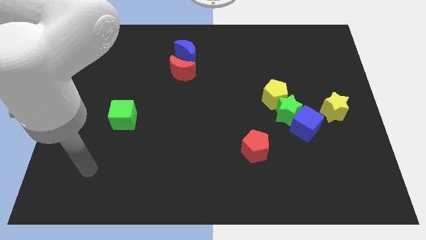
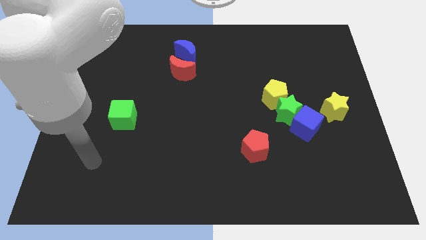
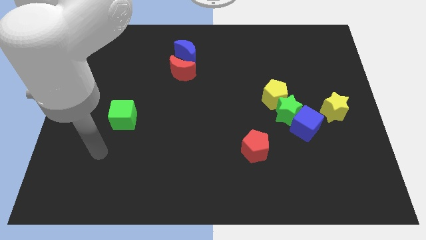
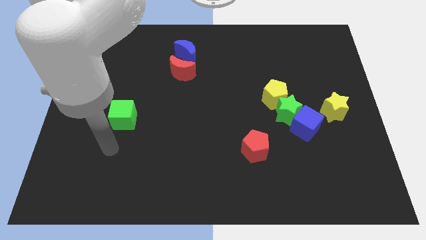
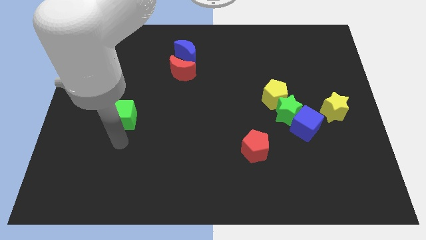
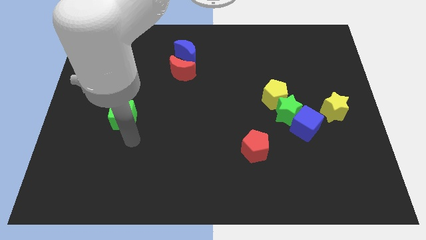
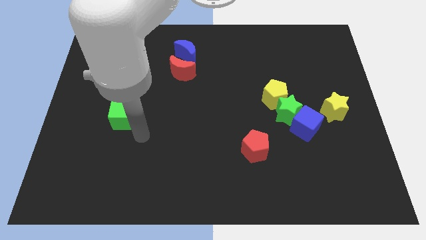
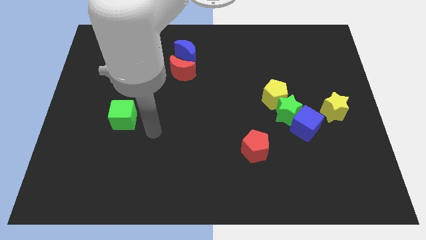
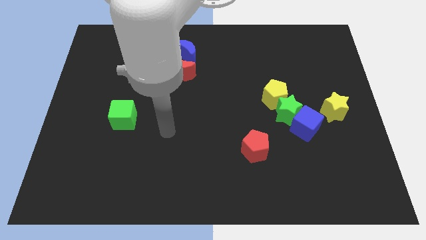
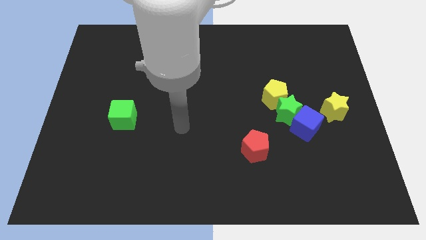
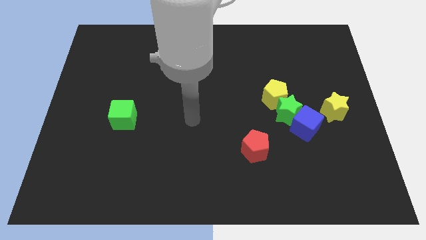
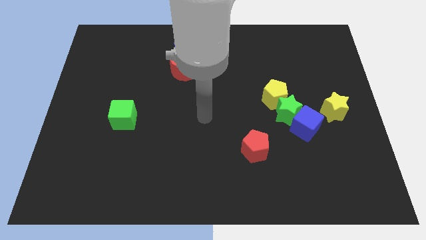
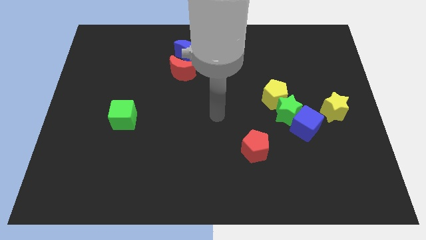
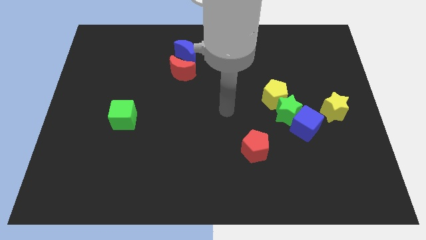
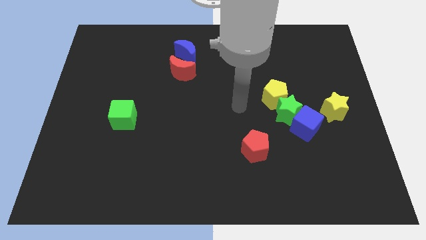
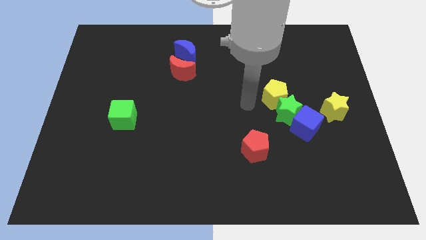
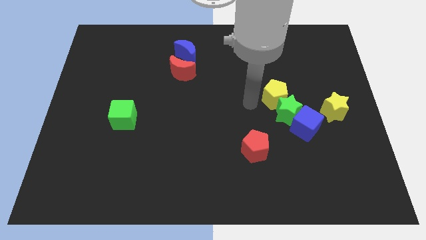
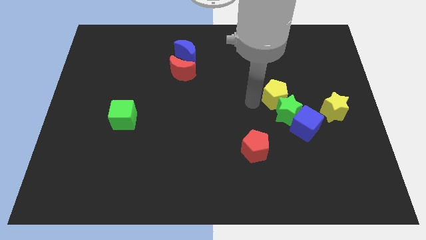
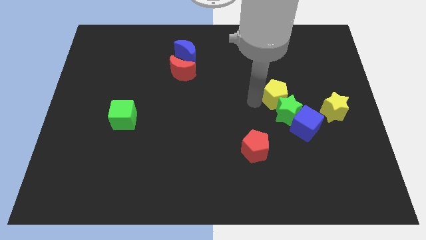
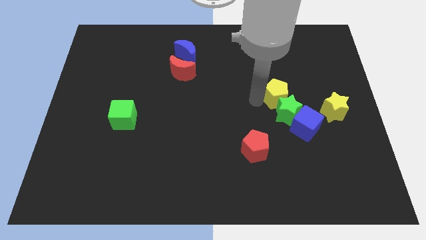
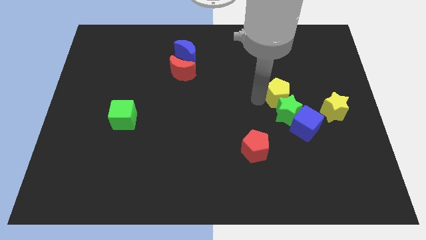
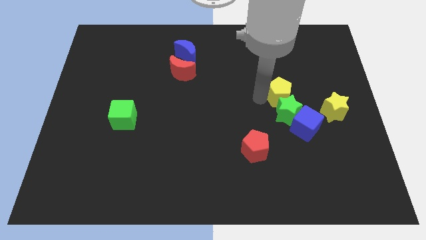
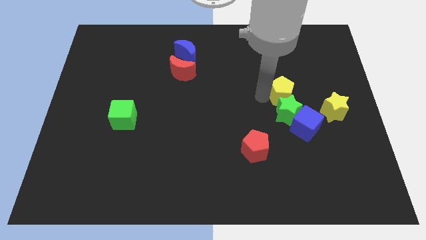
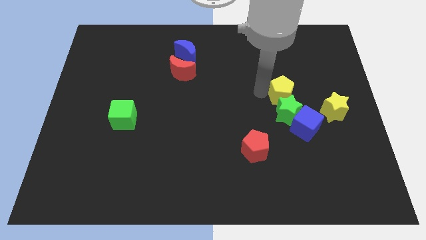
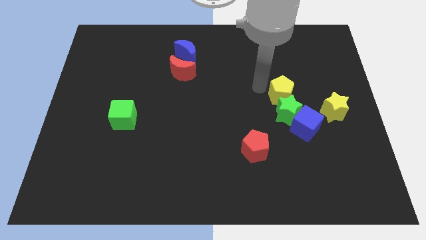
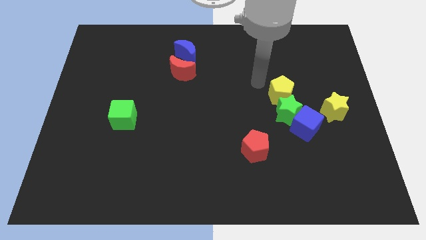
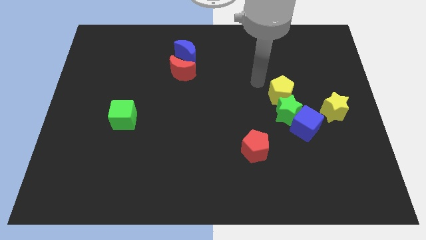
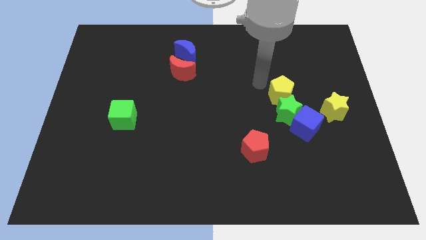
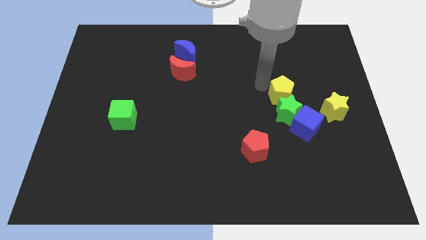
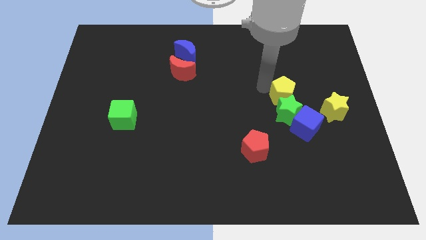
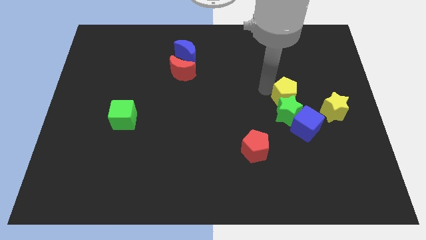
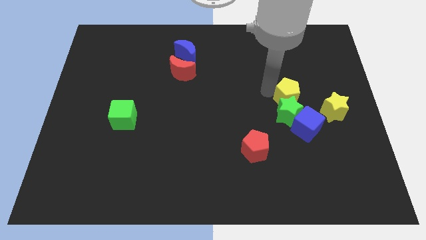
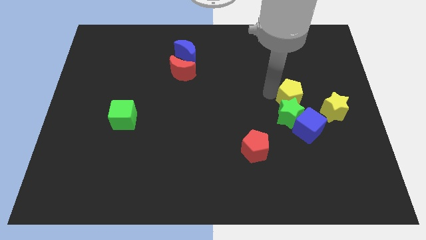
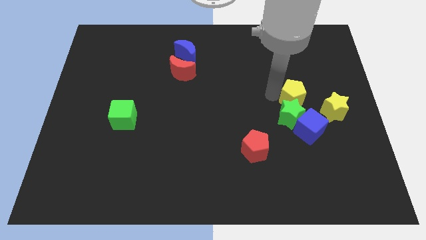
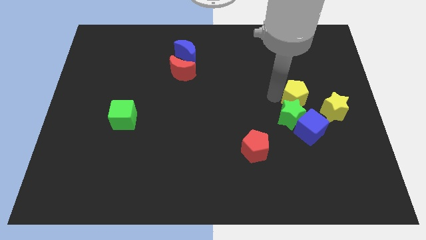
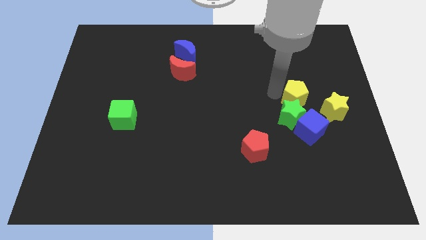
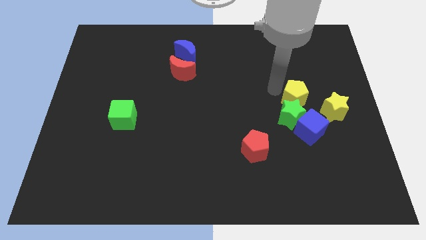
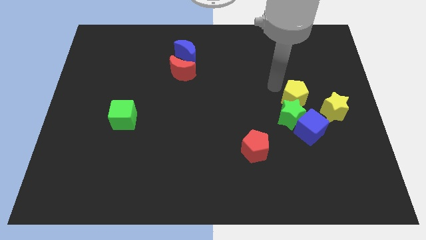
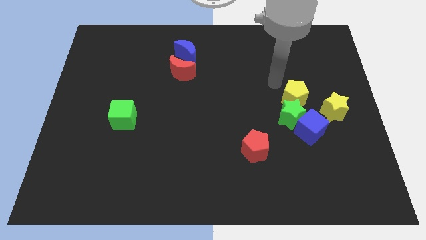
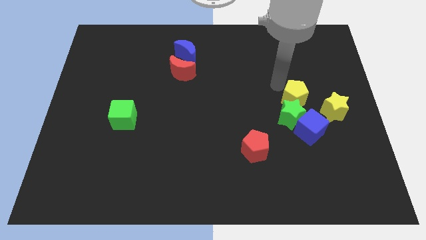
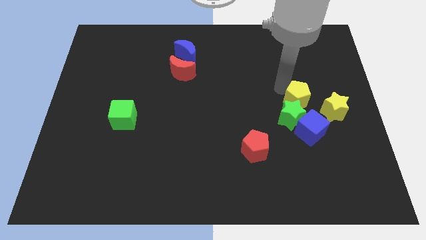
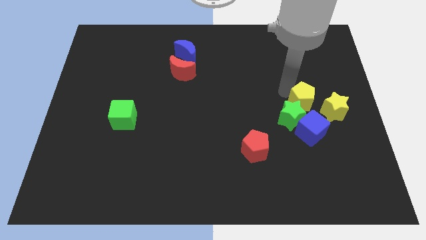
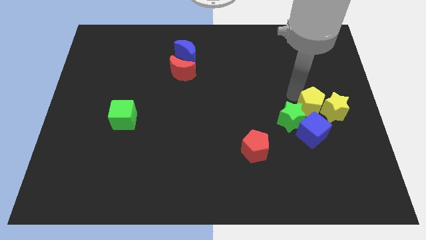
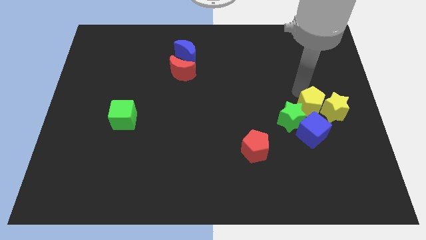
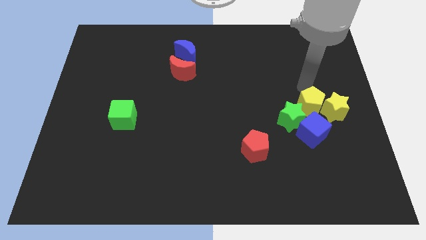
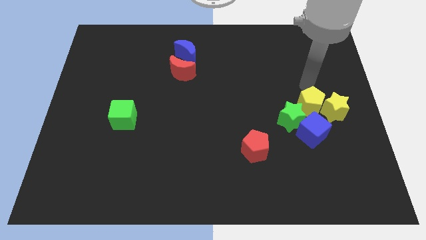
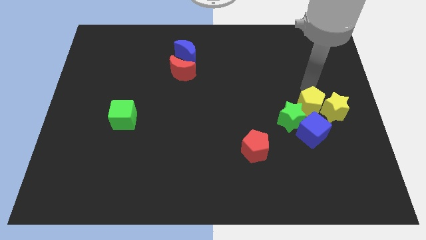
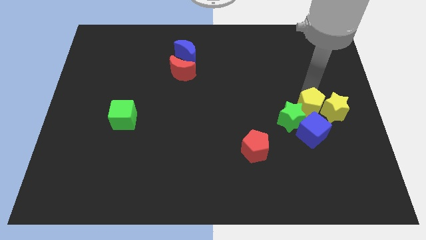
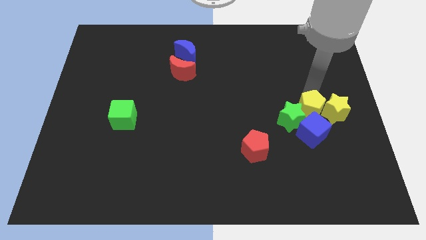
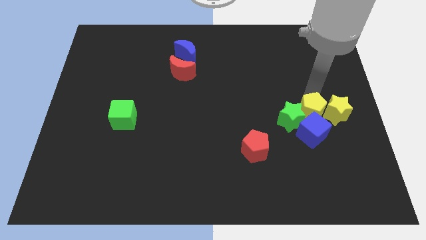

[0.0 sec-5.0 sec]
move the yellow pentagon close to the blue cube

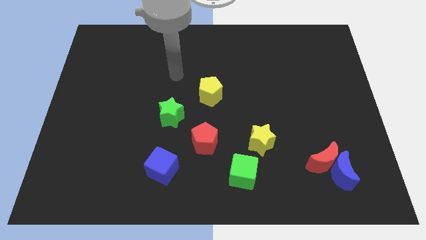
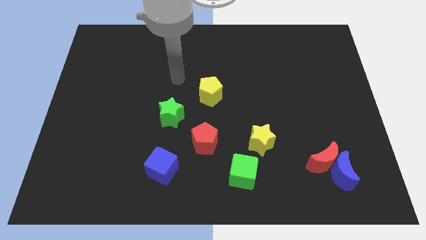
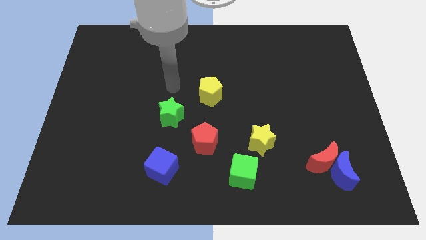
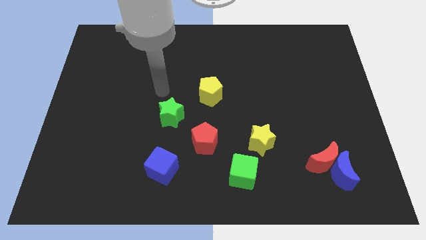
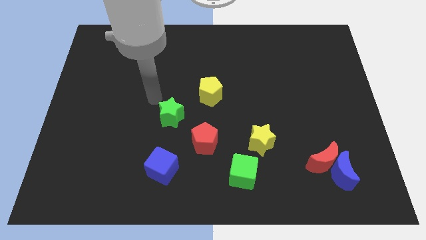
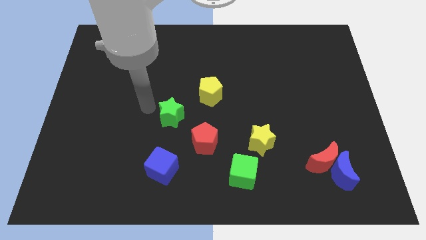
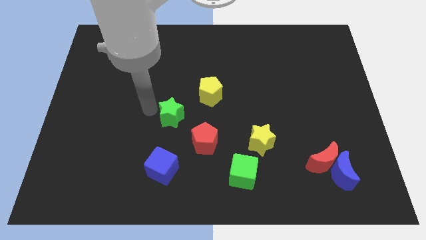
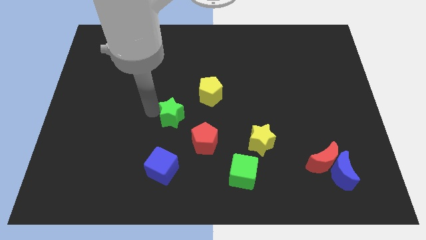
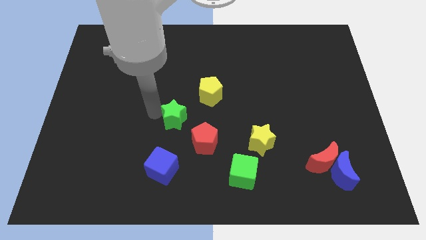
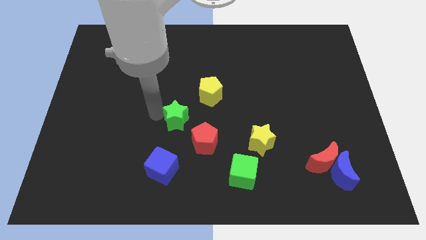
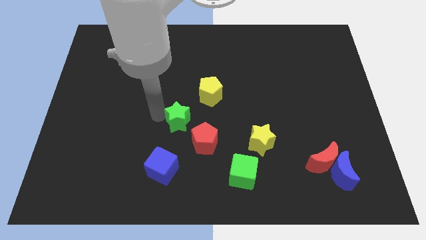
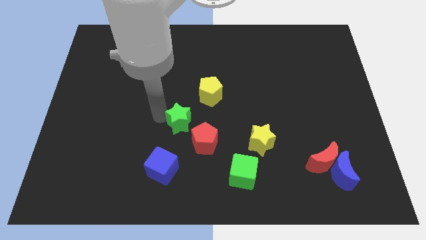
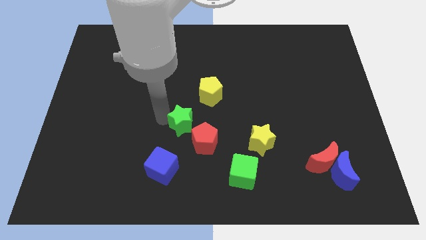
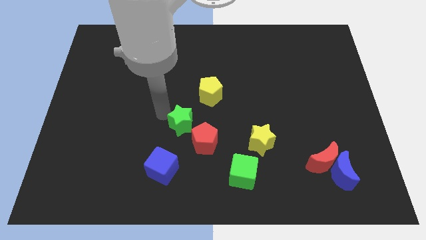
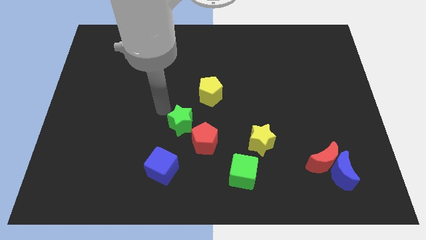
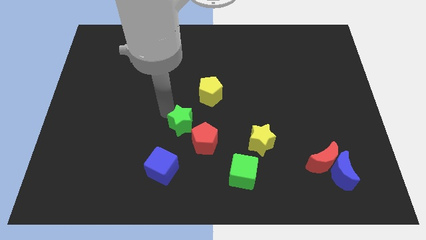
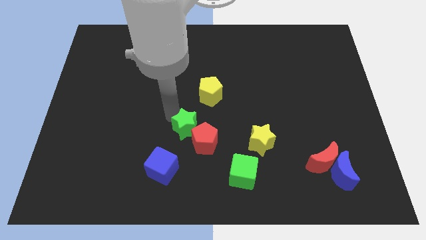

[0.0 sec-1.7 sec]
put the green star to the red pentagon

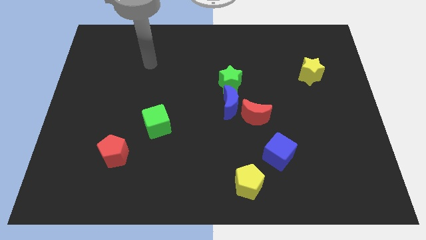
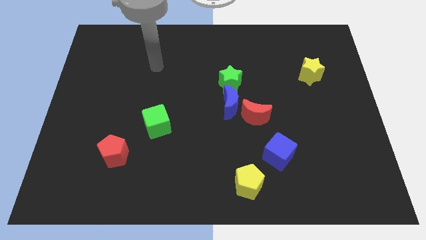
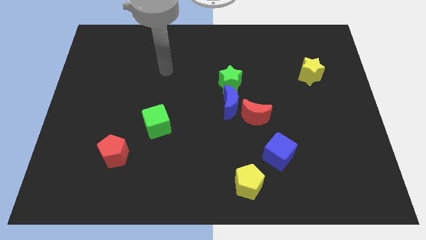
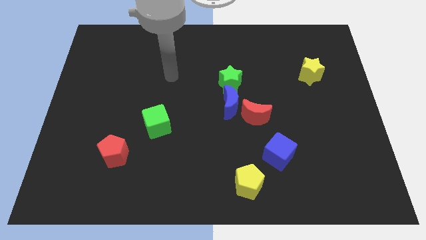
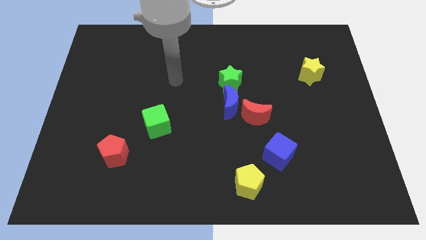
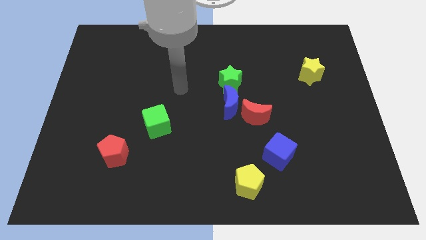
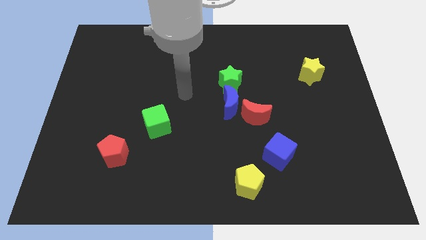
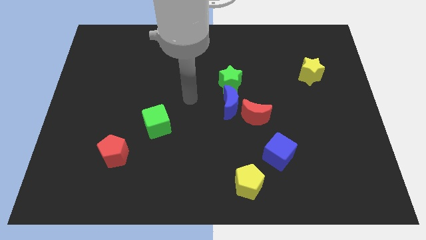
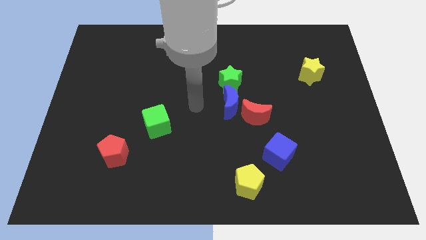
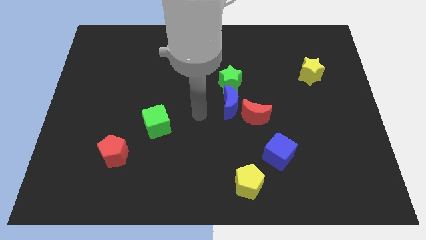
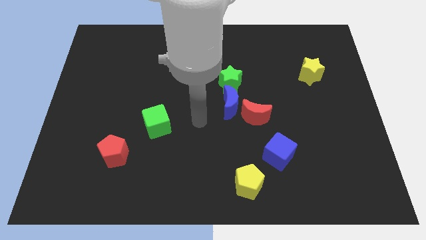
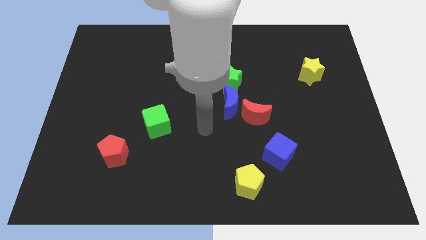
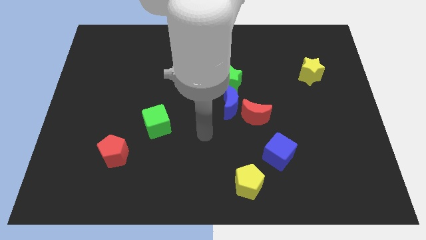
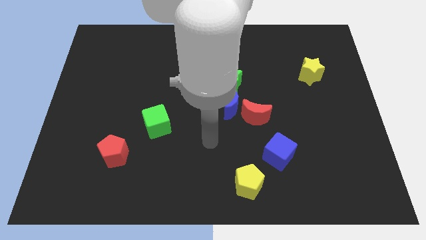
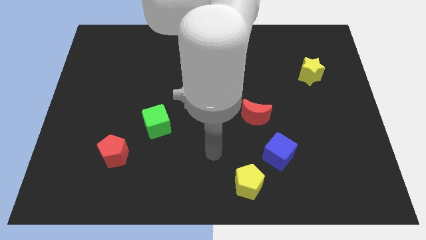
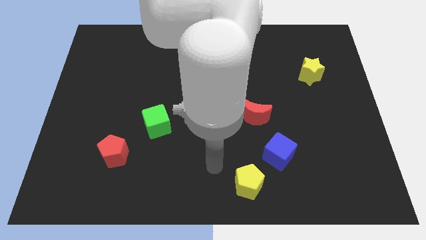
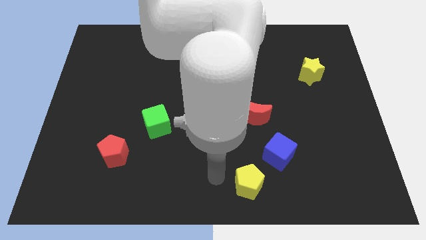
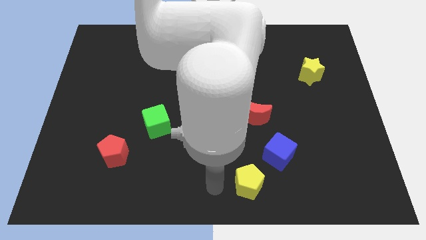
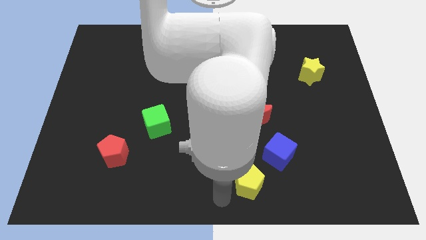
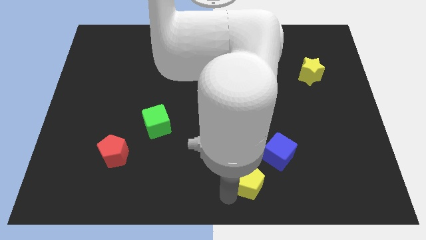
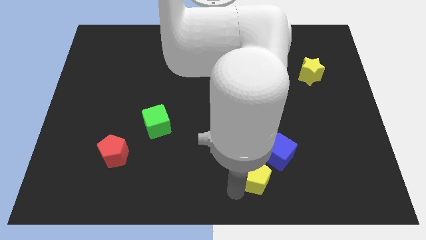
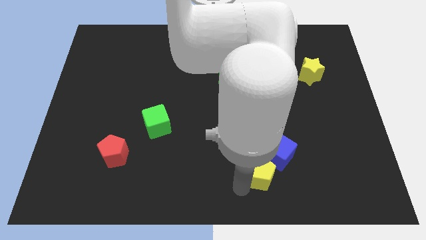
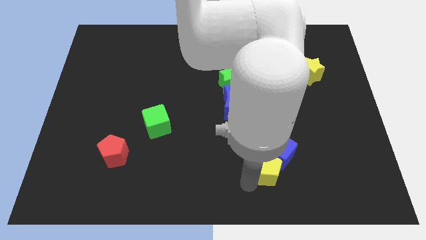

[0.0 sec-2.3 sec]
push the yellow pentagon towards the blue cube
